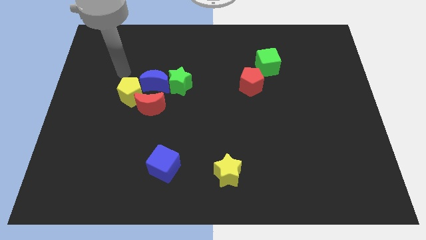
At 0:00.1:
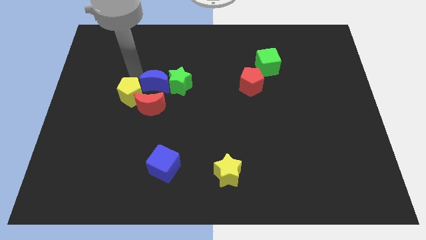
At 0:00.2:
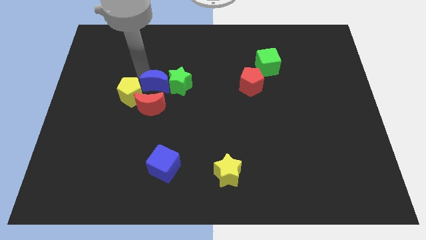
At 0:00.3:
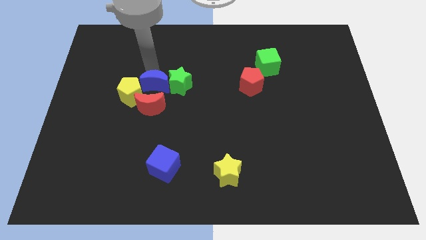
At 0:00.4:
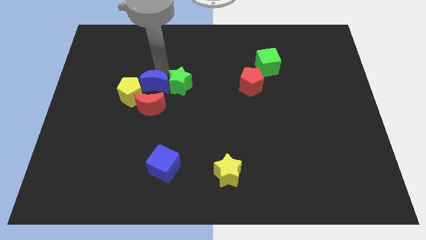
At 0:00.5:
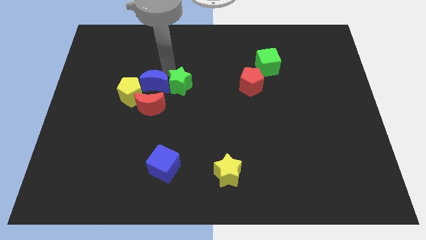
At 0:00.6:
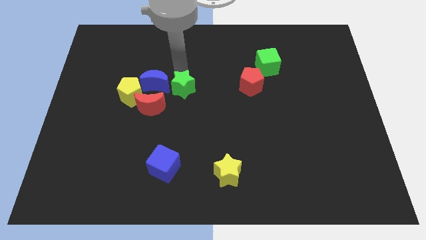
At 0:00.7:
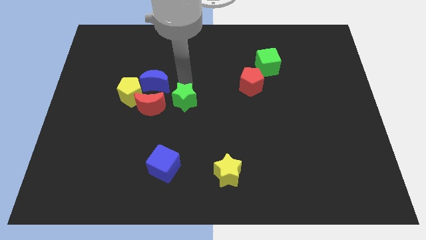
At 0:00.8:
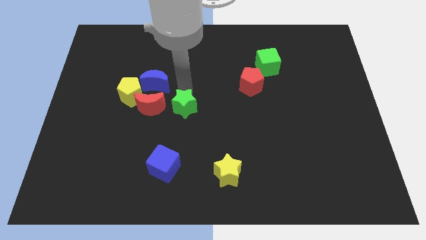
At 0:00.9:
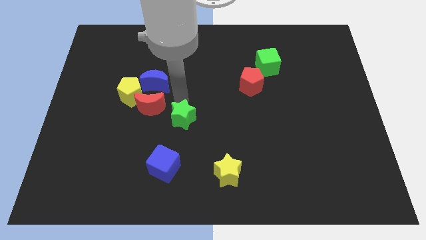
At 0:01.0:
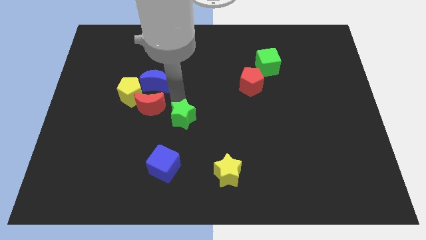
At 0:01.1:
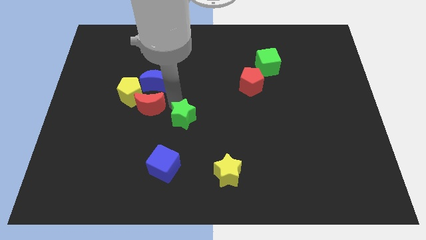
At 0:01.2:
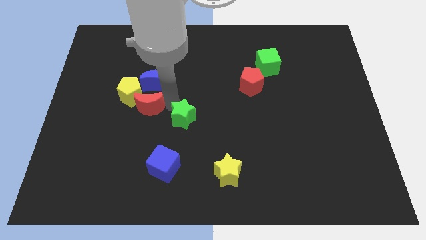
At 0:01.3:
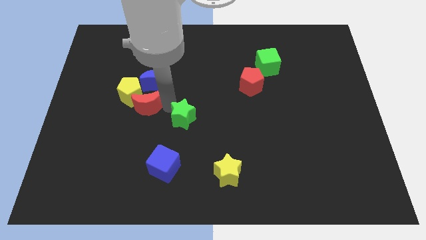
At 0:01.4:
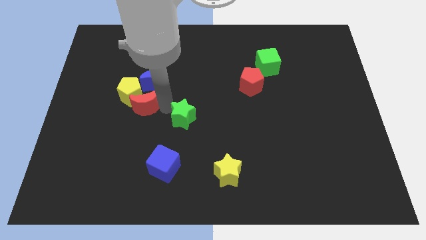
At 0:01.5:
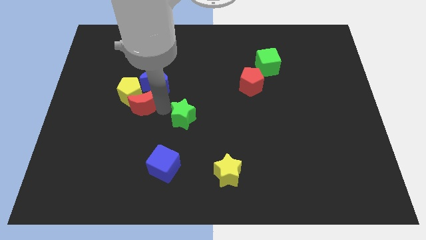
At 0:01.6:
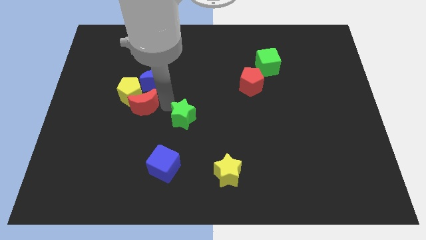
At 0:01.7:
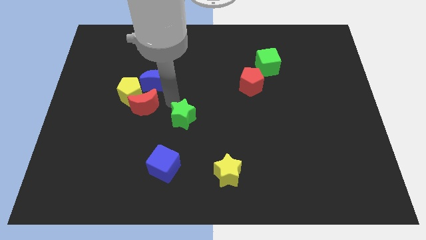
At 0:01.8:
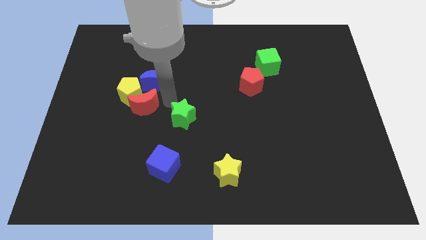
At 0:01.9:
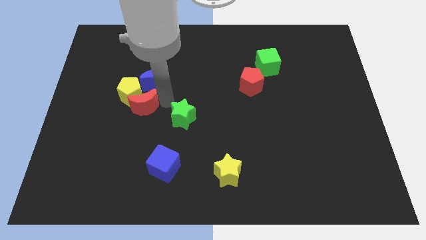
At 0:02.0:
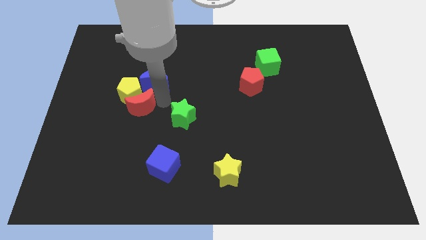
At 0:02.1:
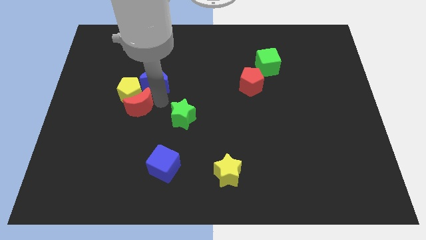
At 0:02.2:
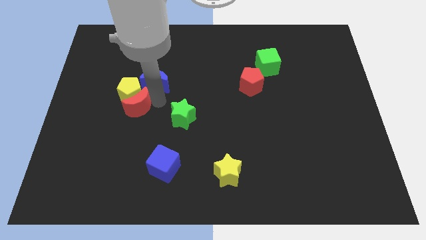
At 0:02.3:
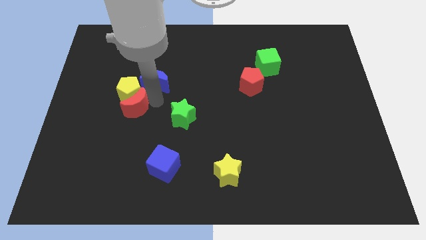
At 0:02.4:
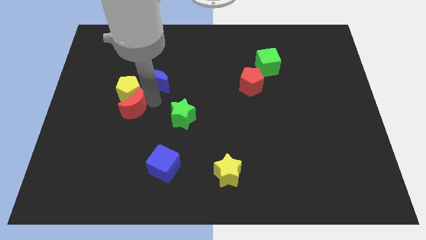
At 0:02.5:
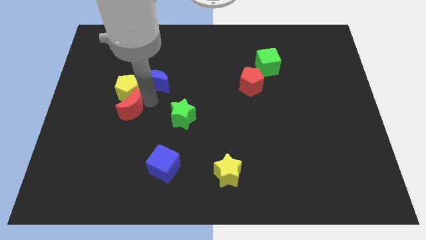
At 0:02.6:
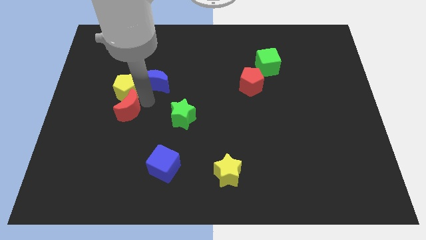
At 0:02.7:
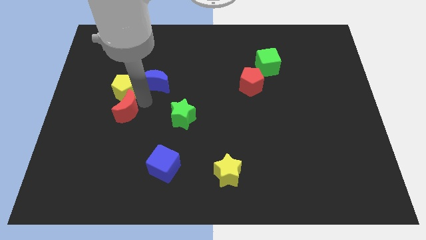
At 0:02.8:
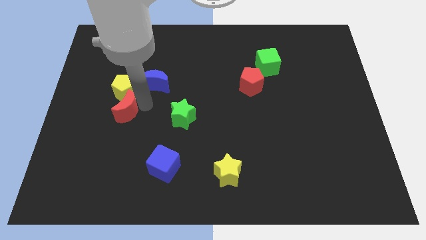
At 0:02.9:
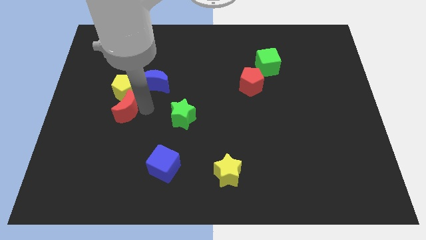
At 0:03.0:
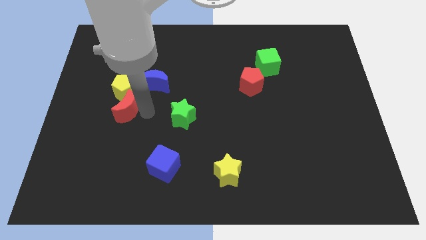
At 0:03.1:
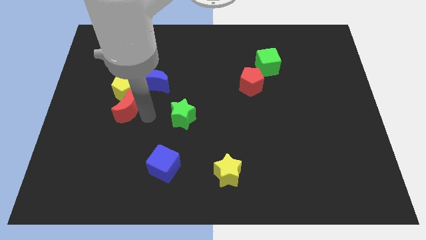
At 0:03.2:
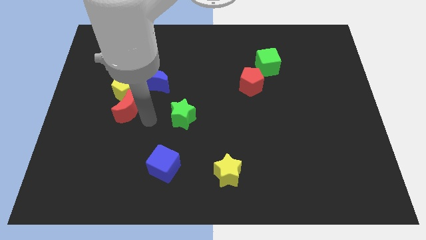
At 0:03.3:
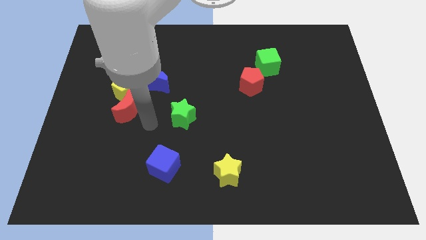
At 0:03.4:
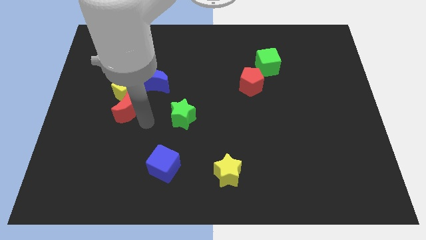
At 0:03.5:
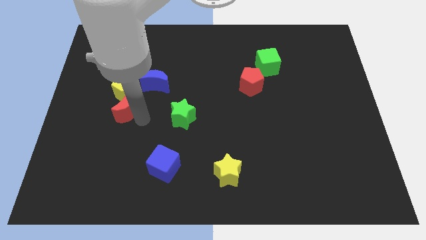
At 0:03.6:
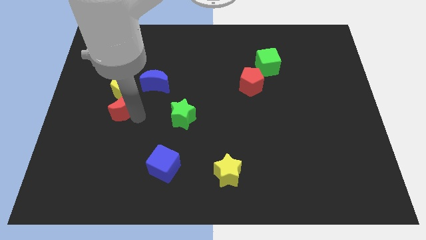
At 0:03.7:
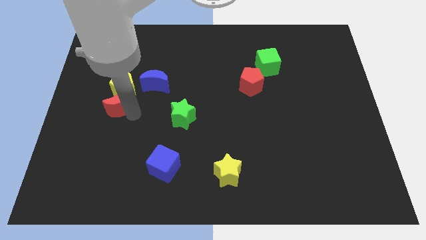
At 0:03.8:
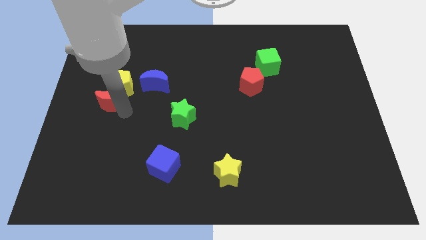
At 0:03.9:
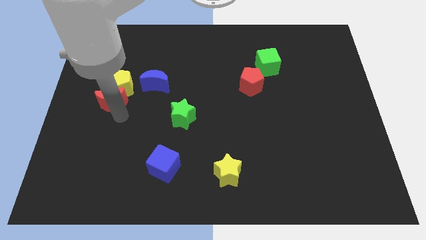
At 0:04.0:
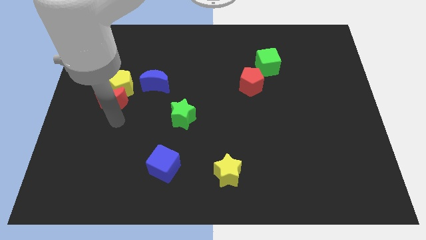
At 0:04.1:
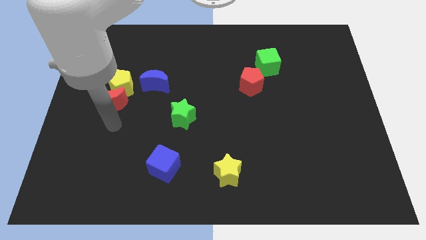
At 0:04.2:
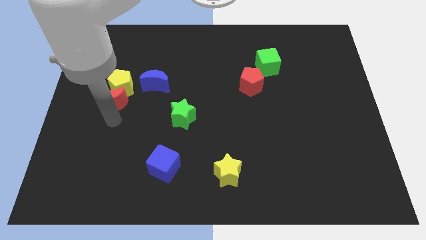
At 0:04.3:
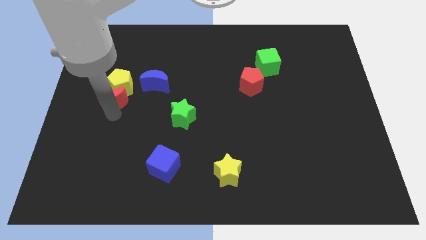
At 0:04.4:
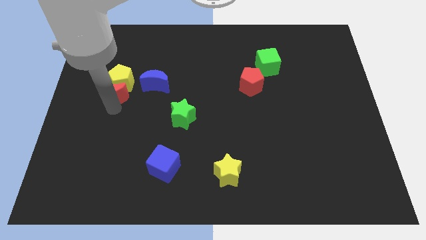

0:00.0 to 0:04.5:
slide the red moon up and left a little

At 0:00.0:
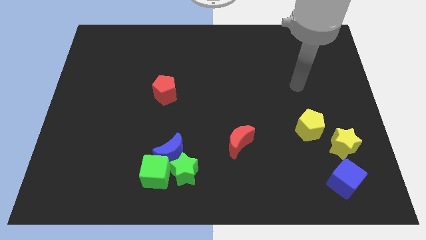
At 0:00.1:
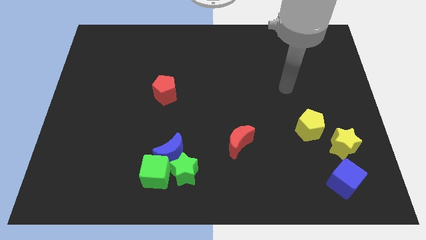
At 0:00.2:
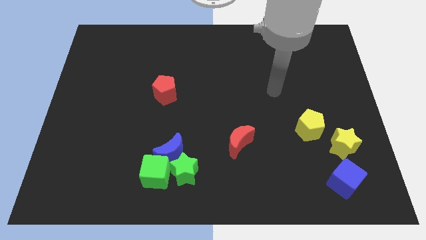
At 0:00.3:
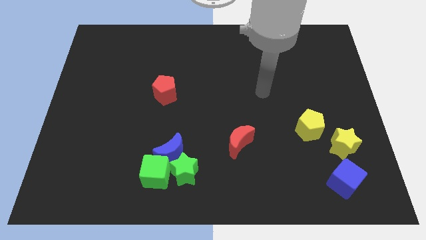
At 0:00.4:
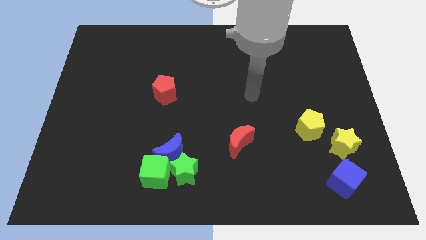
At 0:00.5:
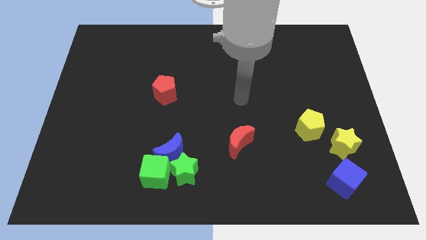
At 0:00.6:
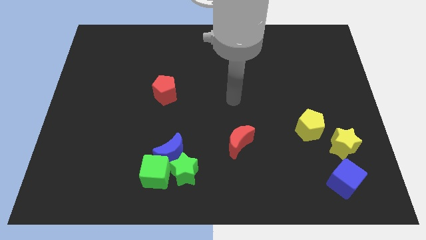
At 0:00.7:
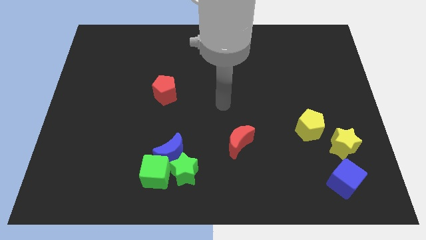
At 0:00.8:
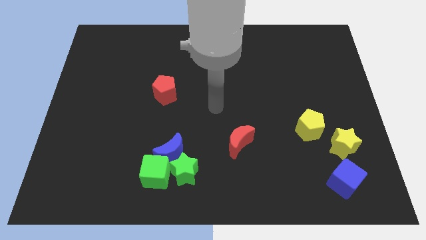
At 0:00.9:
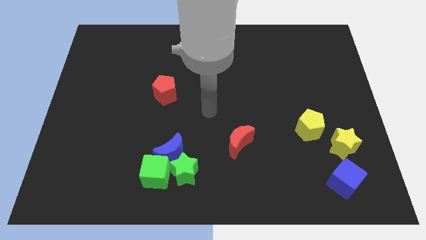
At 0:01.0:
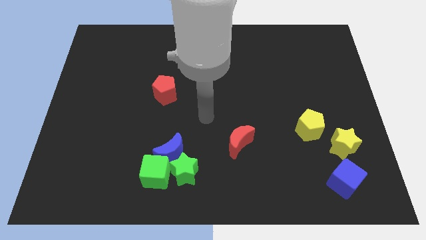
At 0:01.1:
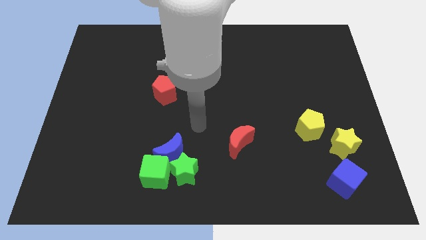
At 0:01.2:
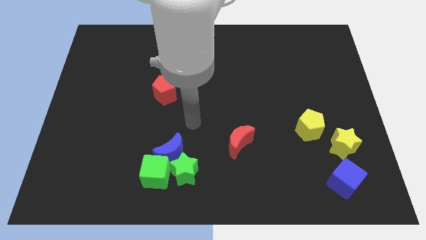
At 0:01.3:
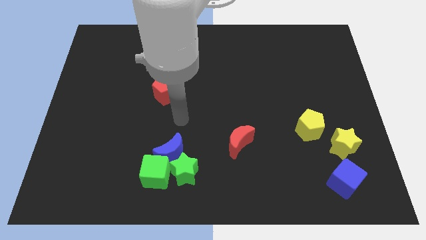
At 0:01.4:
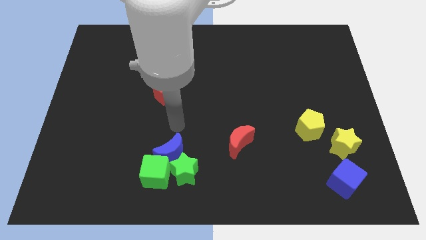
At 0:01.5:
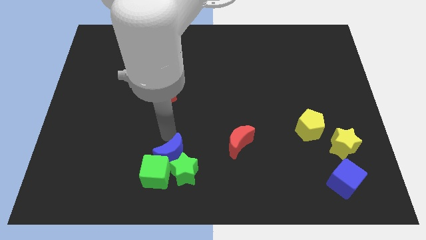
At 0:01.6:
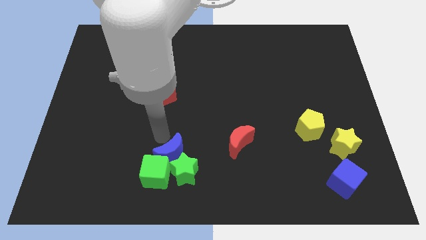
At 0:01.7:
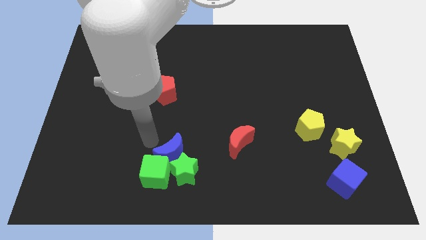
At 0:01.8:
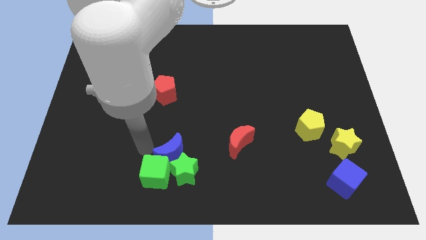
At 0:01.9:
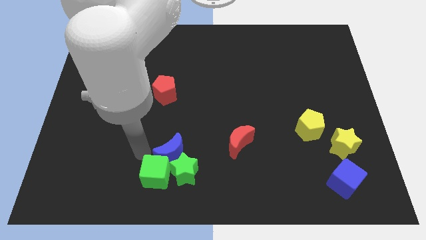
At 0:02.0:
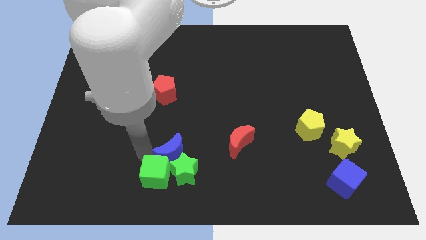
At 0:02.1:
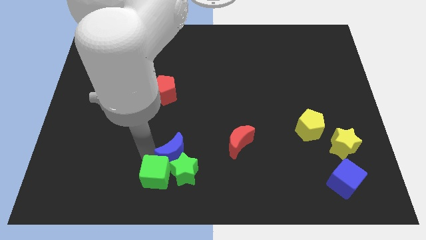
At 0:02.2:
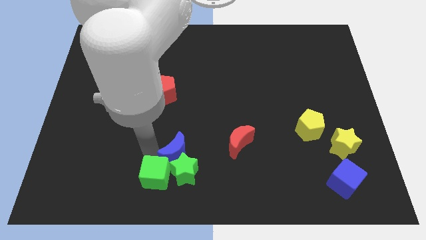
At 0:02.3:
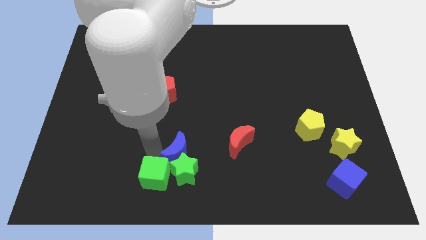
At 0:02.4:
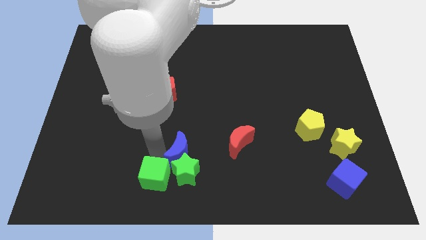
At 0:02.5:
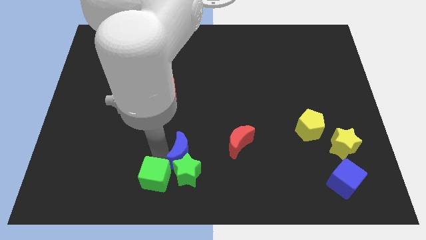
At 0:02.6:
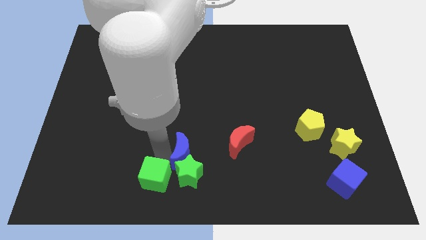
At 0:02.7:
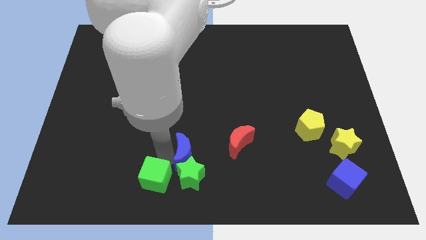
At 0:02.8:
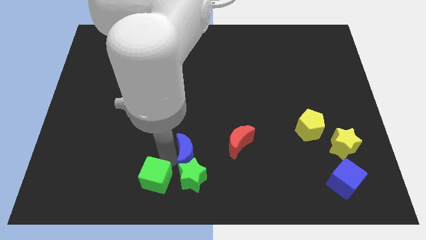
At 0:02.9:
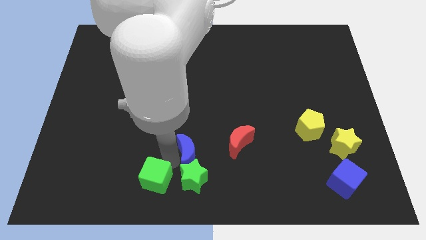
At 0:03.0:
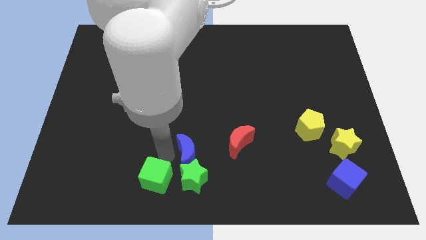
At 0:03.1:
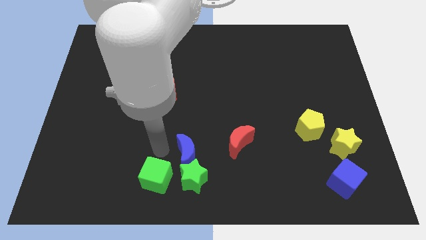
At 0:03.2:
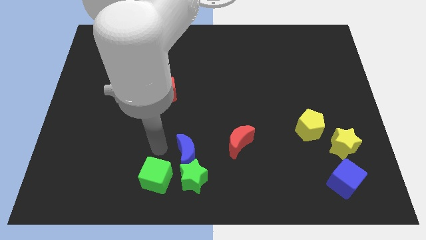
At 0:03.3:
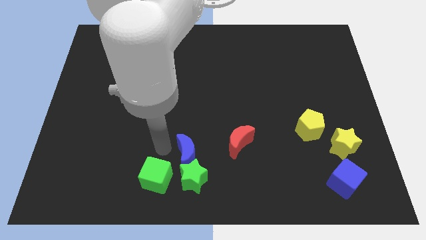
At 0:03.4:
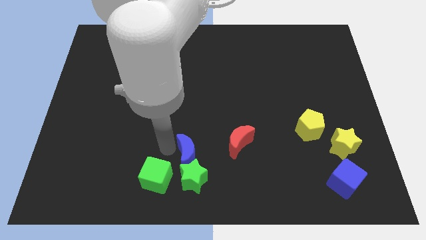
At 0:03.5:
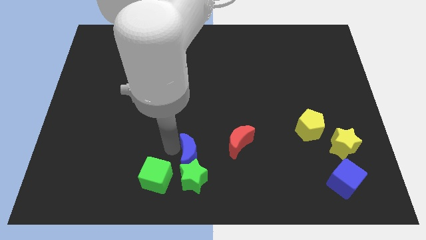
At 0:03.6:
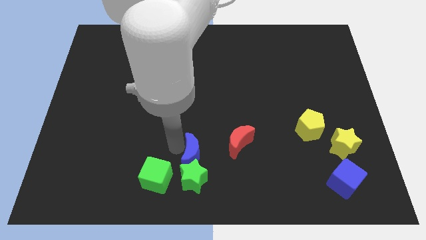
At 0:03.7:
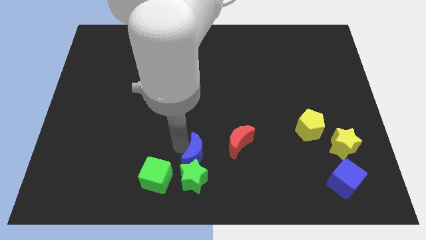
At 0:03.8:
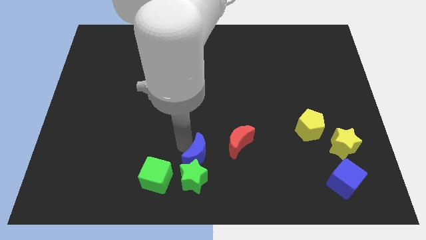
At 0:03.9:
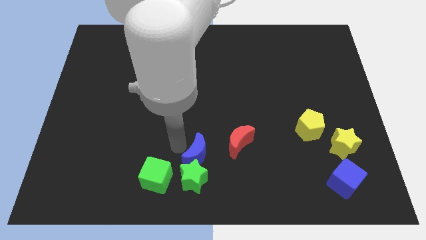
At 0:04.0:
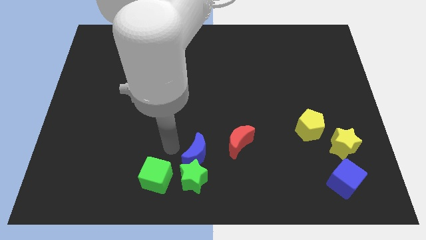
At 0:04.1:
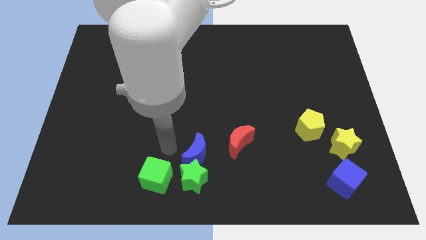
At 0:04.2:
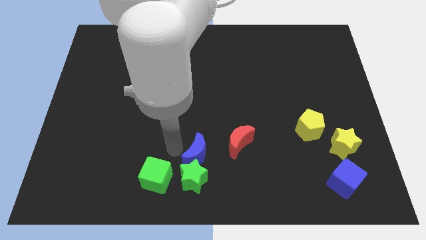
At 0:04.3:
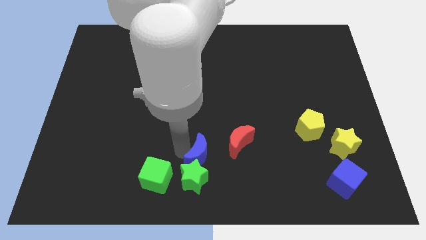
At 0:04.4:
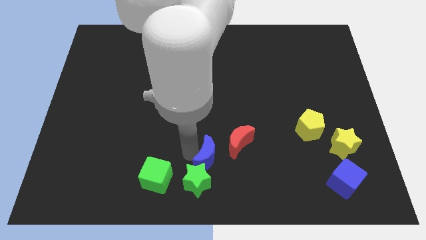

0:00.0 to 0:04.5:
slightly move the blue moon to the right
